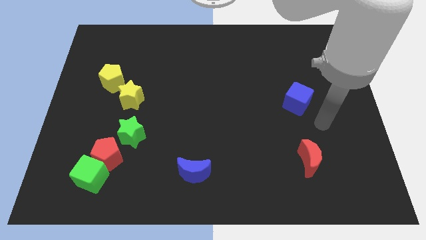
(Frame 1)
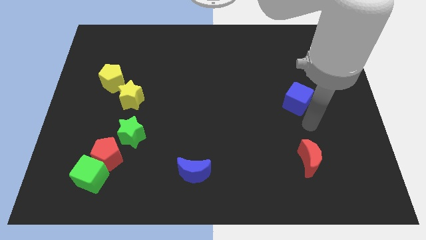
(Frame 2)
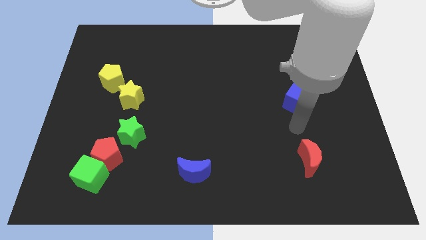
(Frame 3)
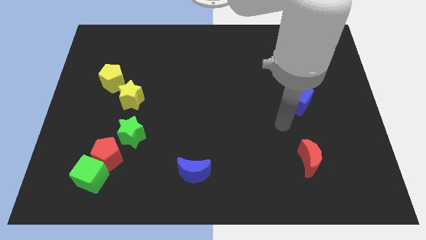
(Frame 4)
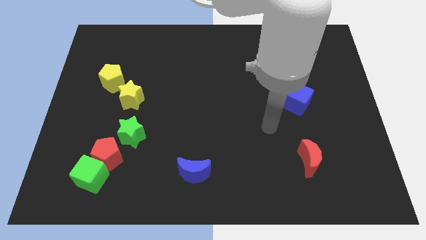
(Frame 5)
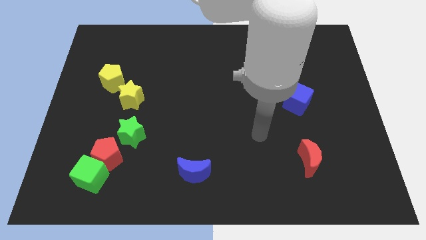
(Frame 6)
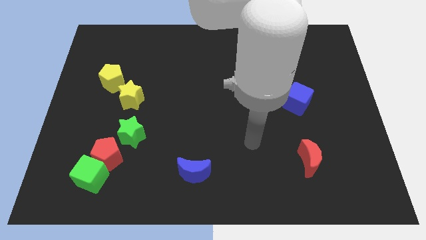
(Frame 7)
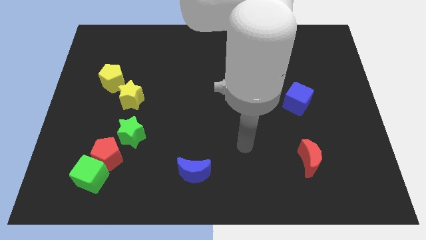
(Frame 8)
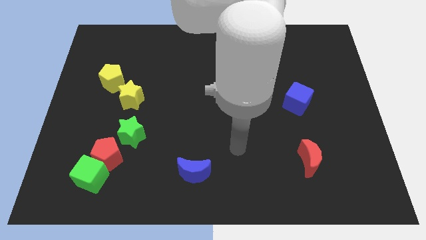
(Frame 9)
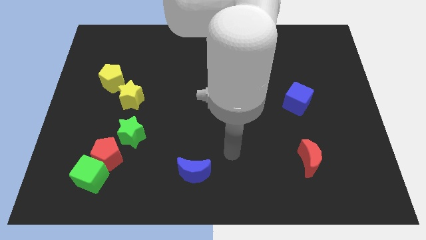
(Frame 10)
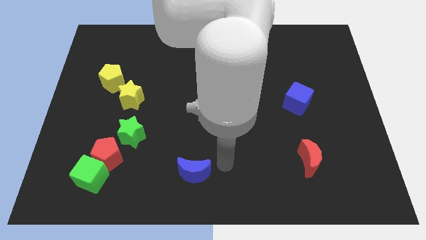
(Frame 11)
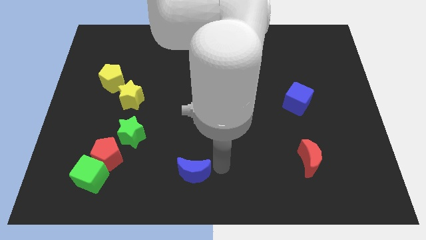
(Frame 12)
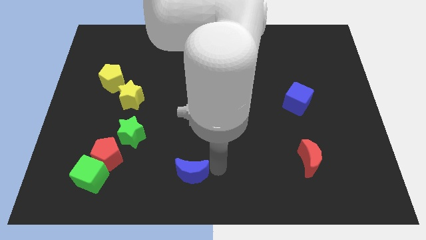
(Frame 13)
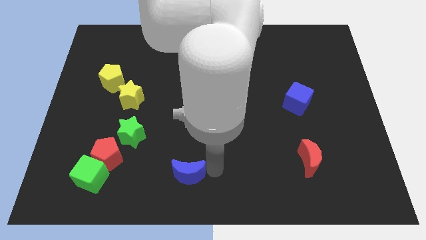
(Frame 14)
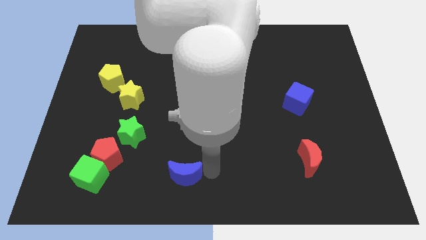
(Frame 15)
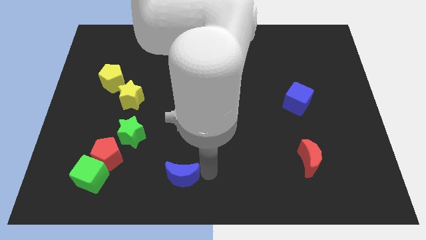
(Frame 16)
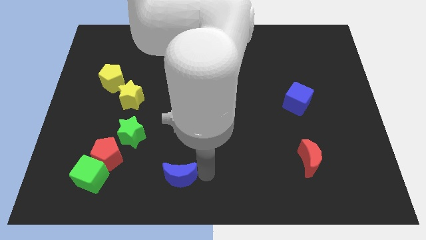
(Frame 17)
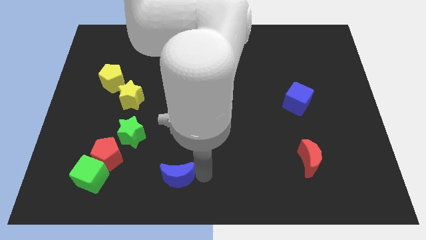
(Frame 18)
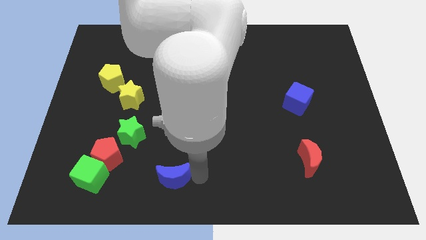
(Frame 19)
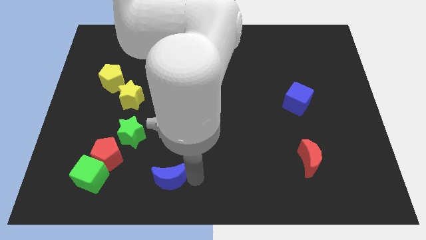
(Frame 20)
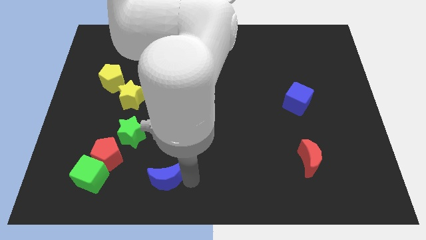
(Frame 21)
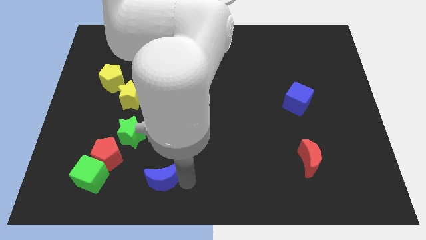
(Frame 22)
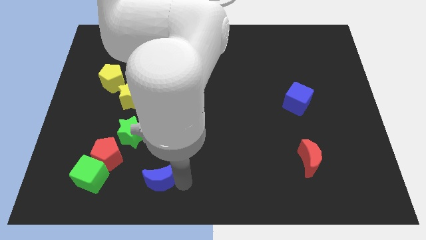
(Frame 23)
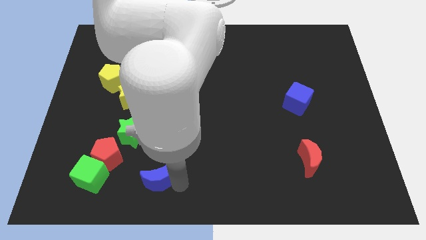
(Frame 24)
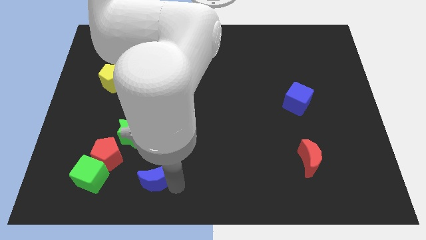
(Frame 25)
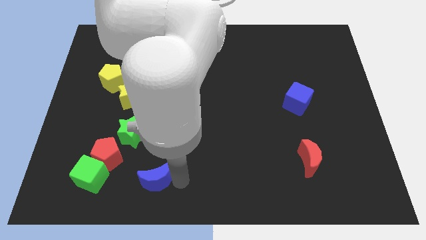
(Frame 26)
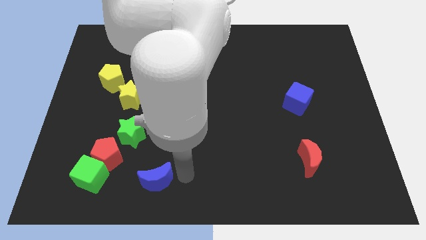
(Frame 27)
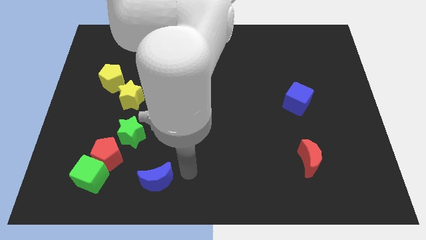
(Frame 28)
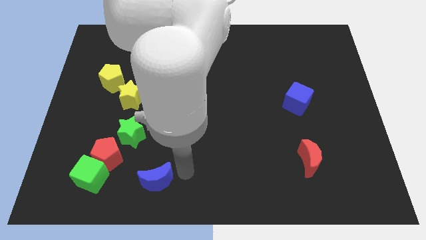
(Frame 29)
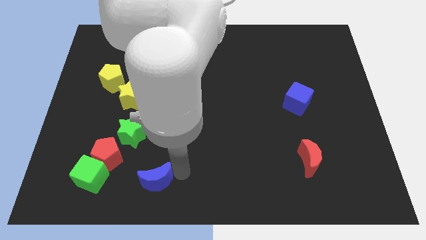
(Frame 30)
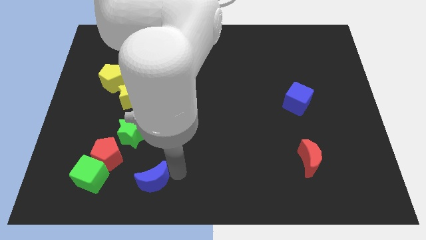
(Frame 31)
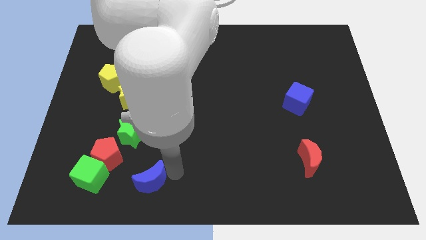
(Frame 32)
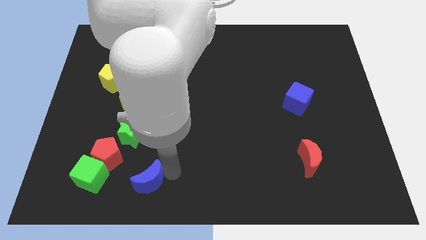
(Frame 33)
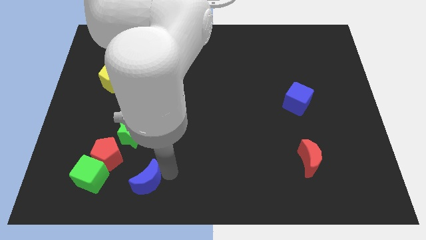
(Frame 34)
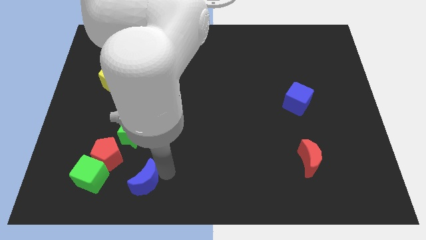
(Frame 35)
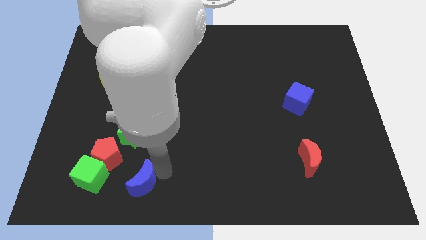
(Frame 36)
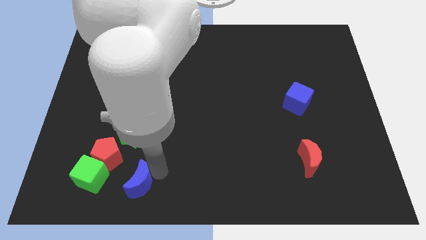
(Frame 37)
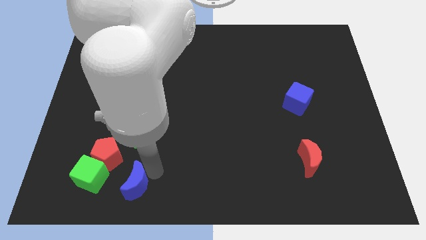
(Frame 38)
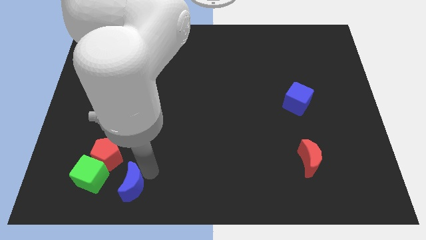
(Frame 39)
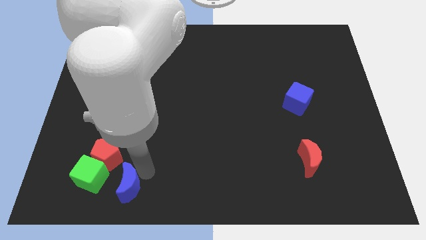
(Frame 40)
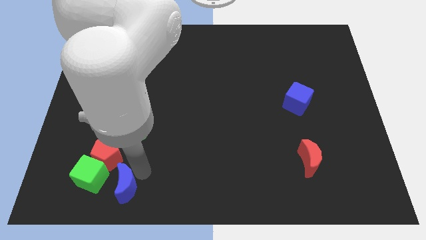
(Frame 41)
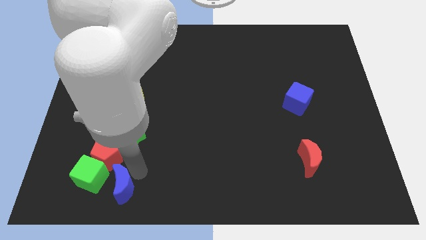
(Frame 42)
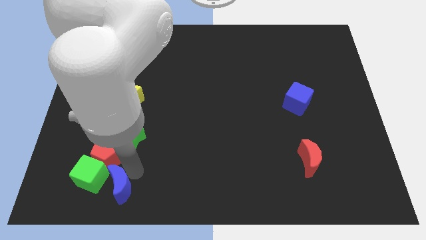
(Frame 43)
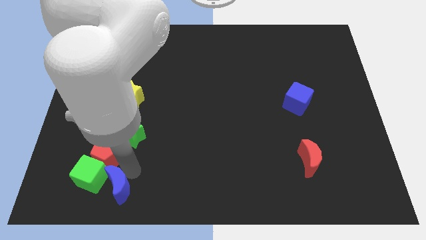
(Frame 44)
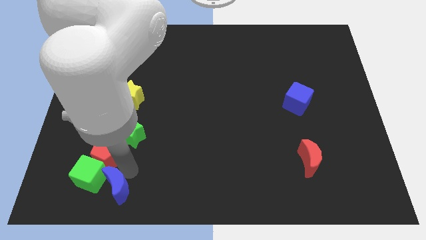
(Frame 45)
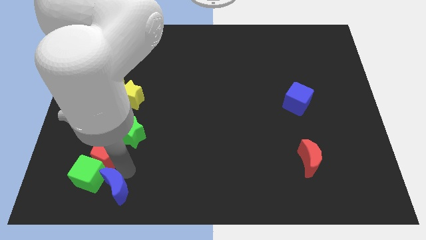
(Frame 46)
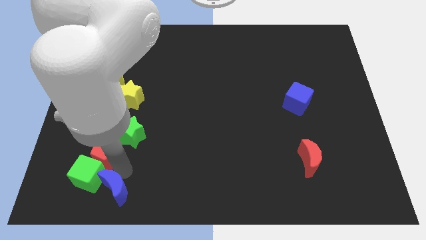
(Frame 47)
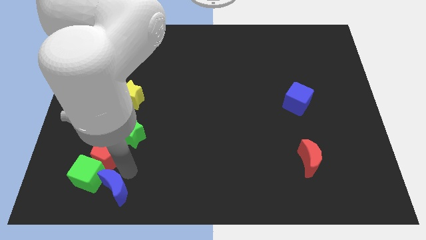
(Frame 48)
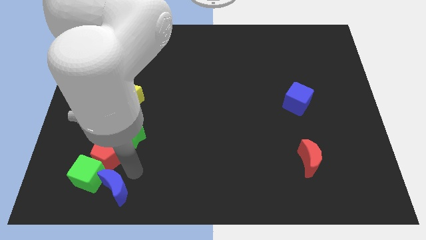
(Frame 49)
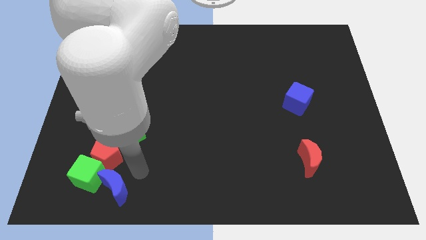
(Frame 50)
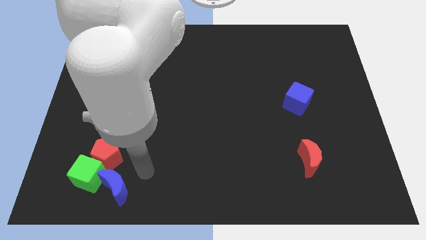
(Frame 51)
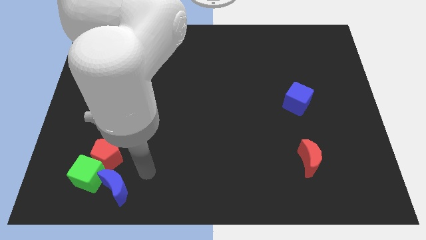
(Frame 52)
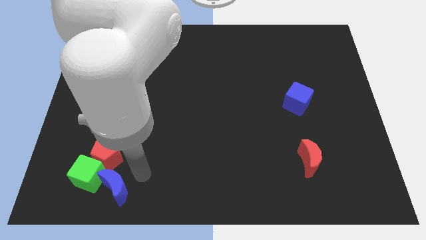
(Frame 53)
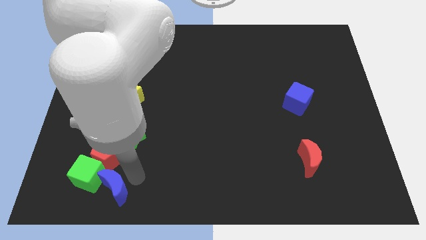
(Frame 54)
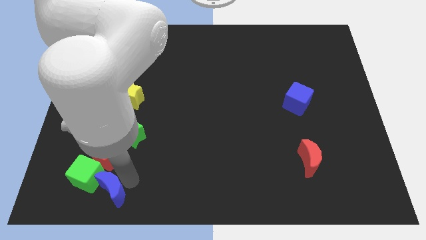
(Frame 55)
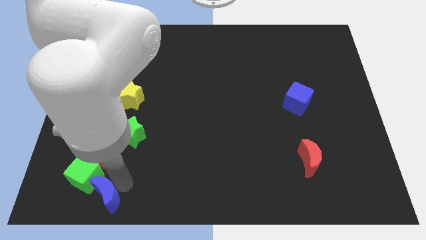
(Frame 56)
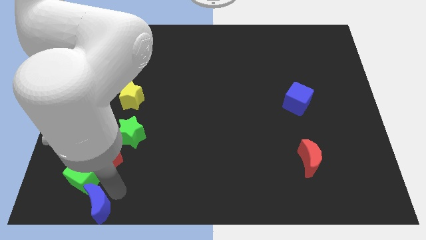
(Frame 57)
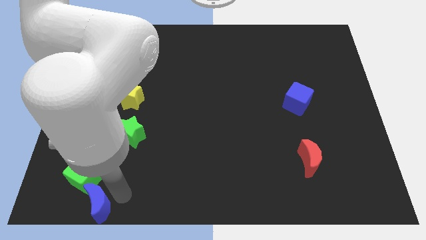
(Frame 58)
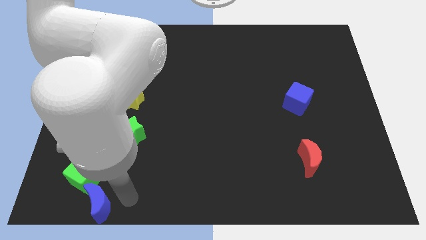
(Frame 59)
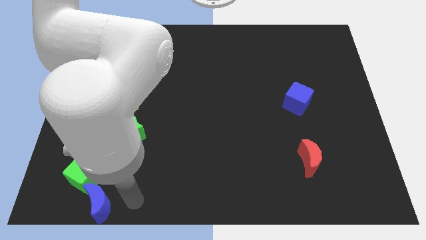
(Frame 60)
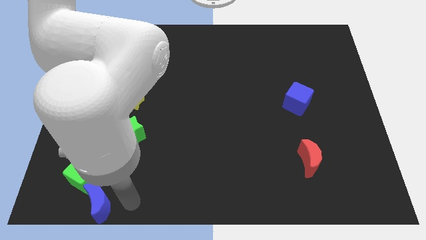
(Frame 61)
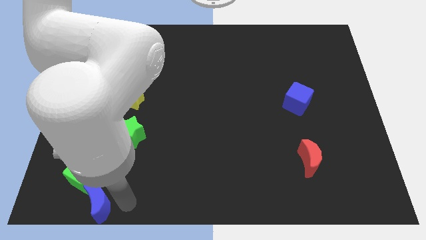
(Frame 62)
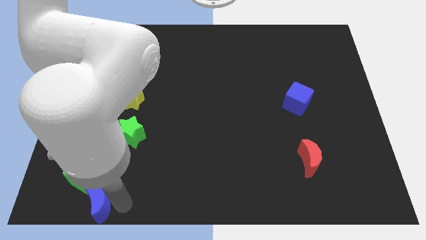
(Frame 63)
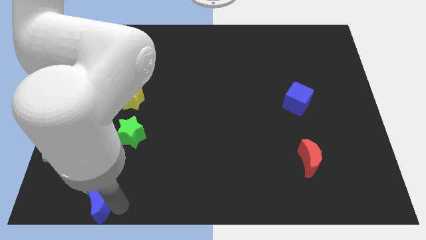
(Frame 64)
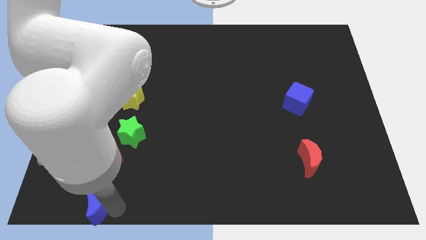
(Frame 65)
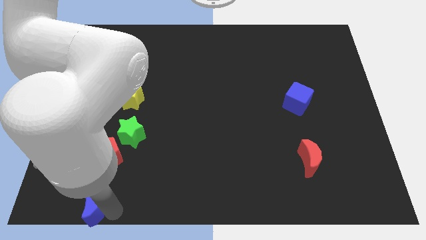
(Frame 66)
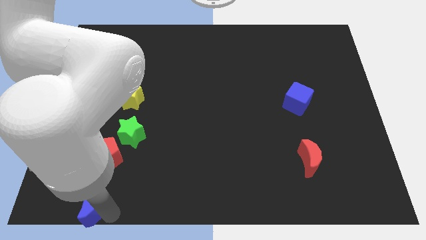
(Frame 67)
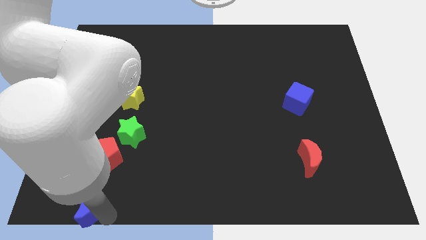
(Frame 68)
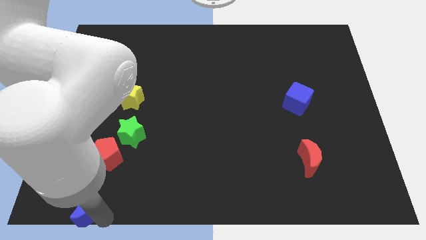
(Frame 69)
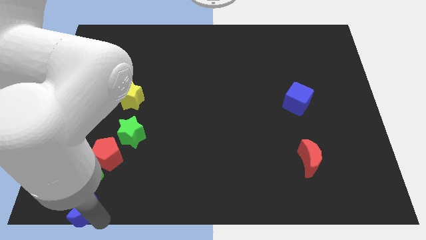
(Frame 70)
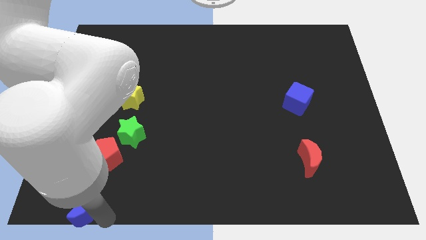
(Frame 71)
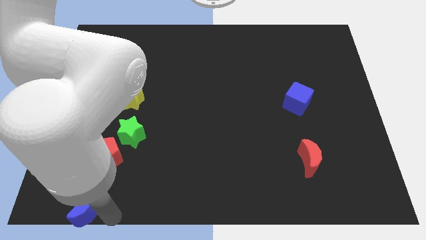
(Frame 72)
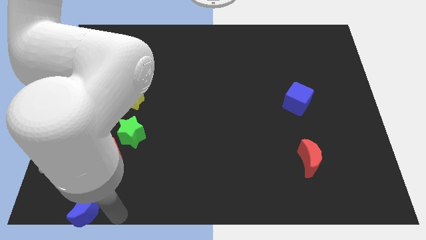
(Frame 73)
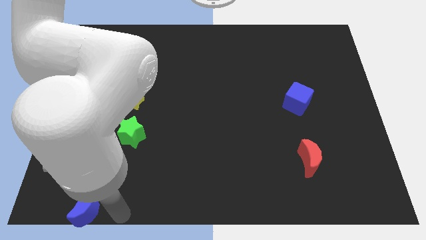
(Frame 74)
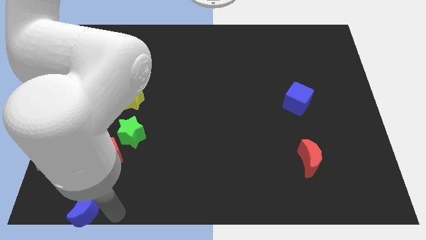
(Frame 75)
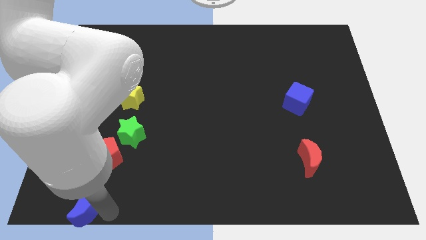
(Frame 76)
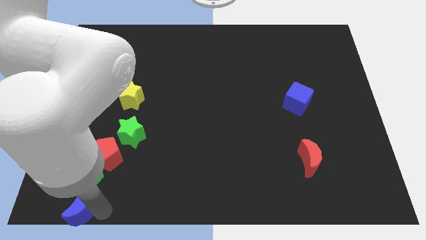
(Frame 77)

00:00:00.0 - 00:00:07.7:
move the blue moon to the bottom left of the board
